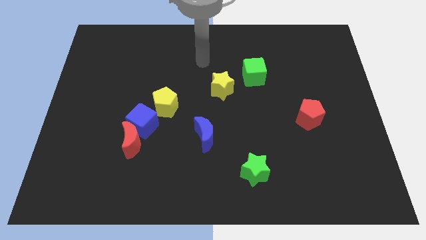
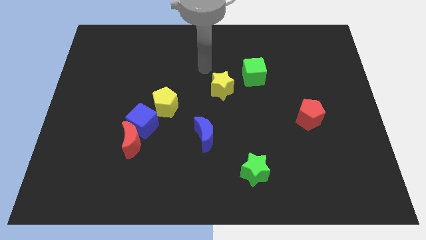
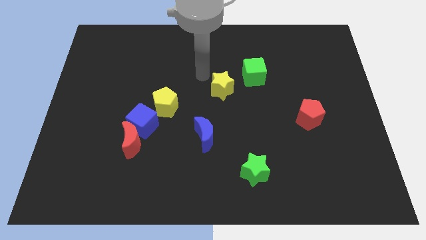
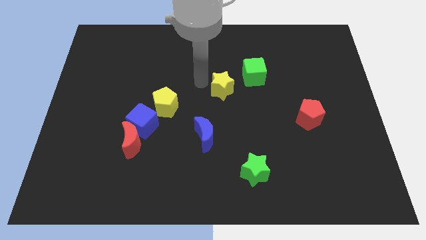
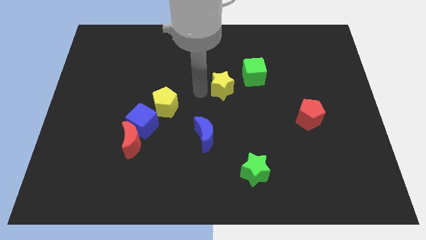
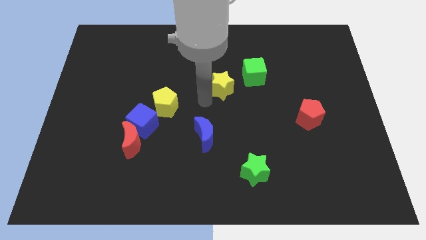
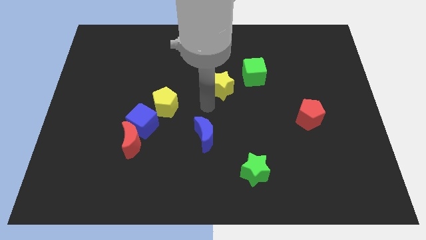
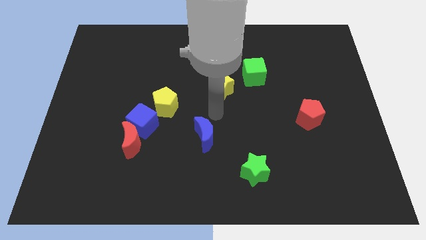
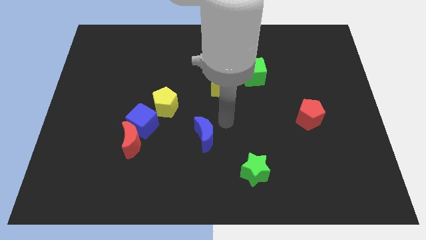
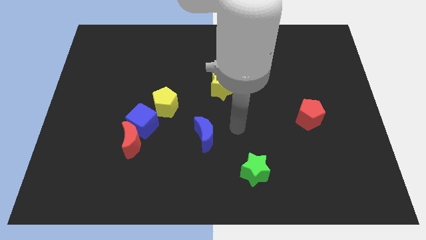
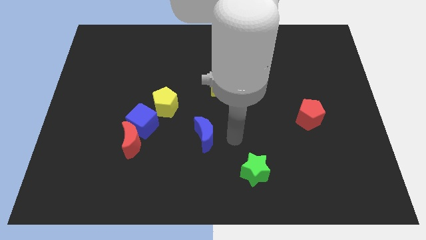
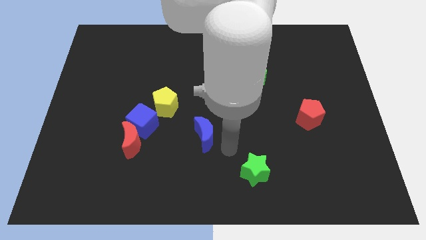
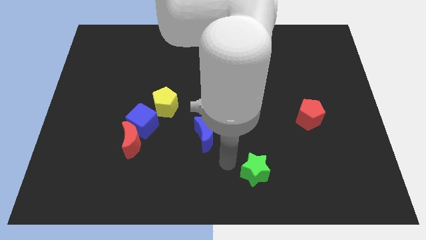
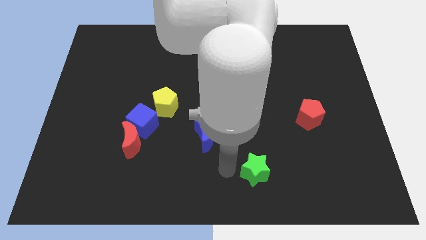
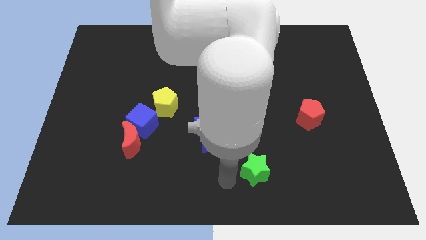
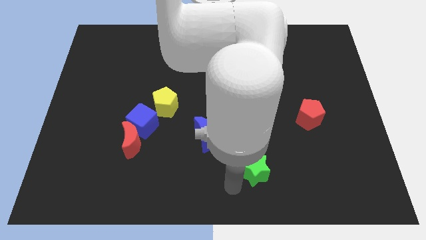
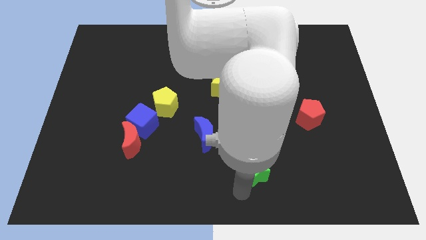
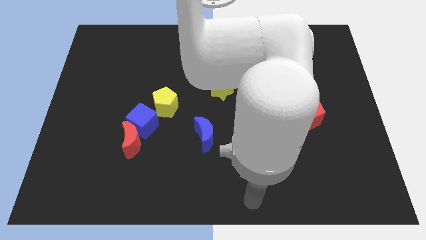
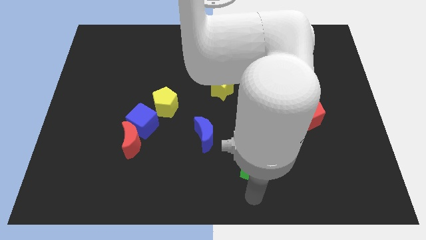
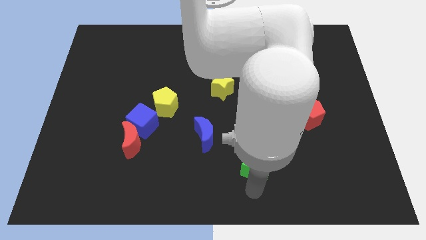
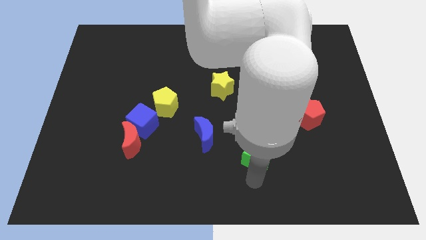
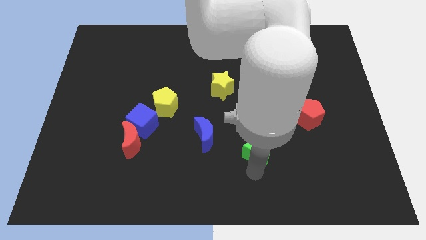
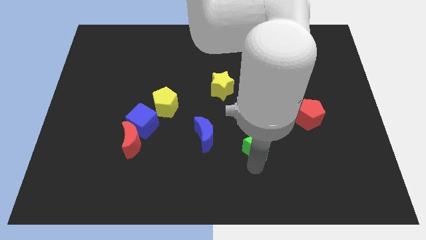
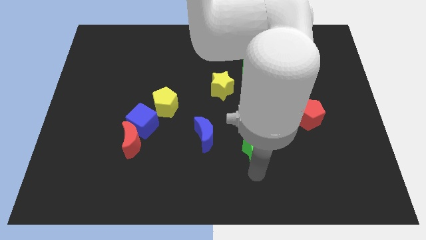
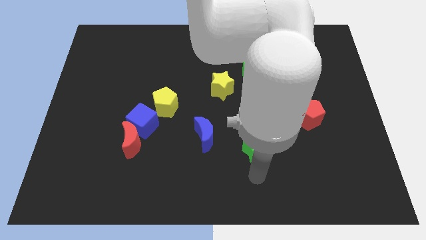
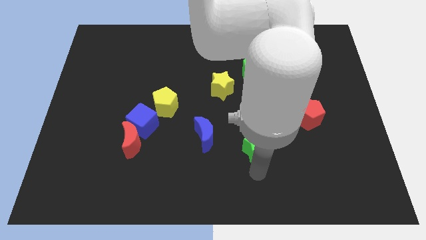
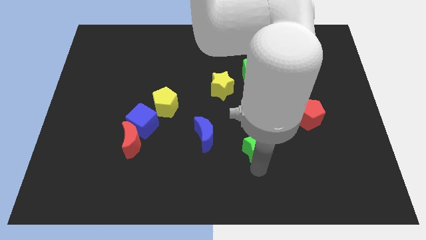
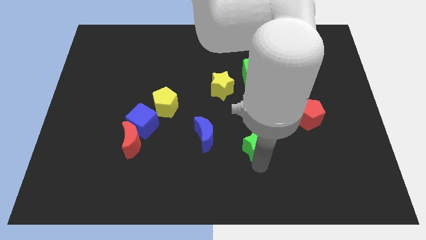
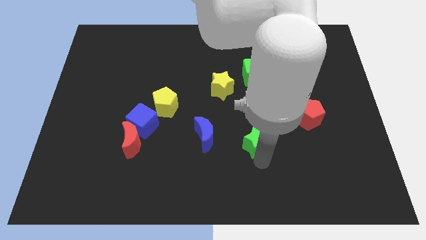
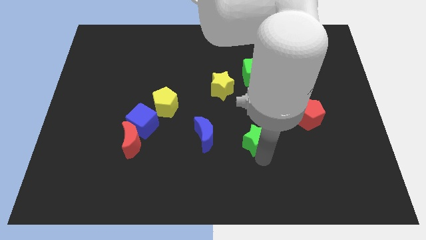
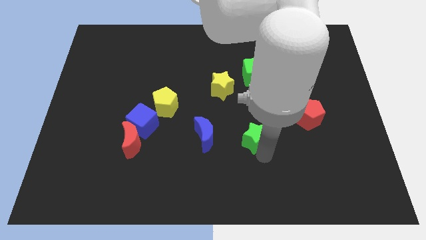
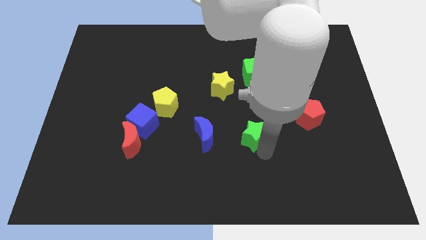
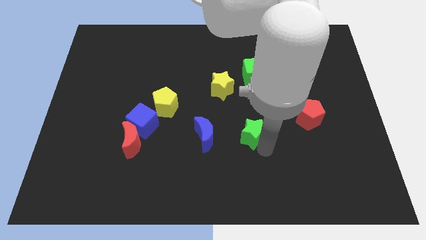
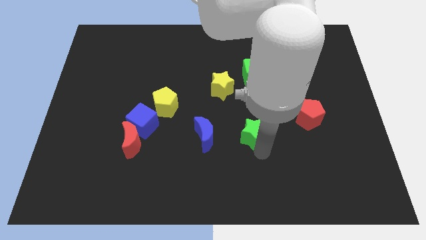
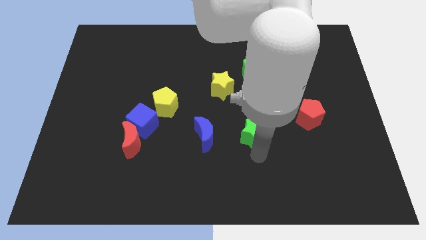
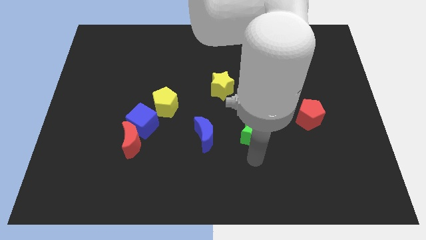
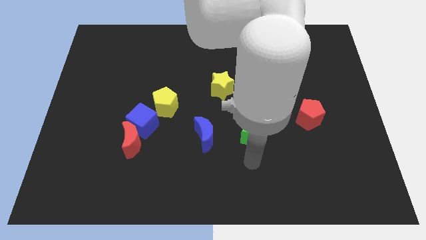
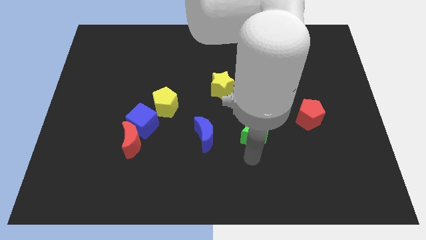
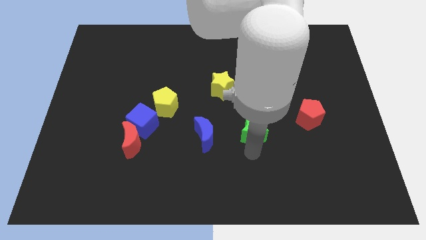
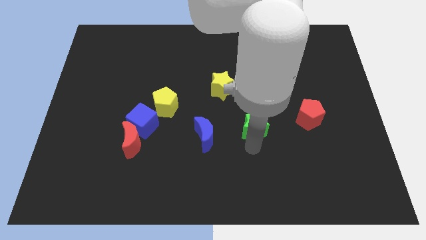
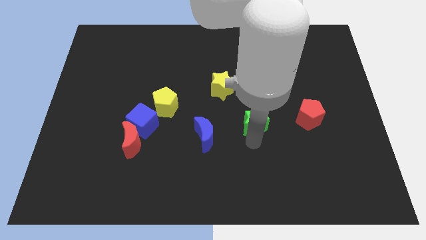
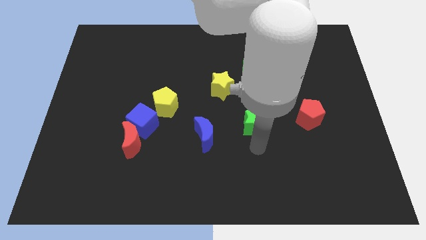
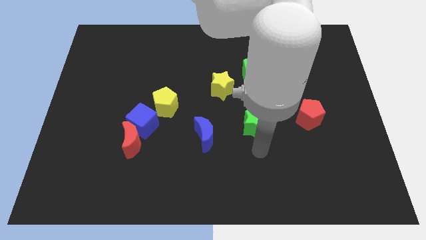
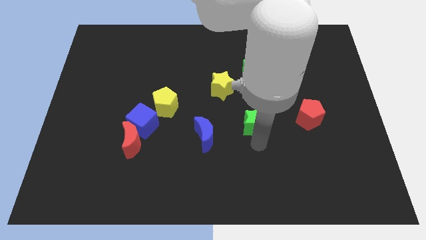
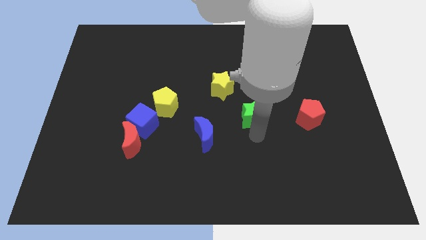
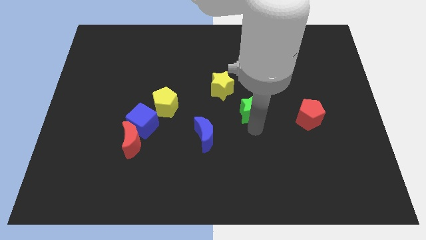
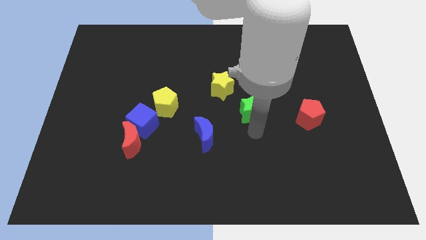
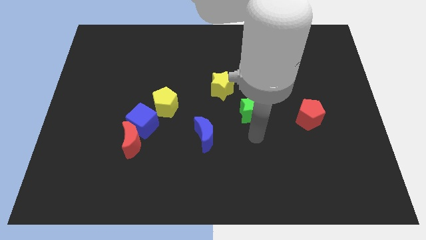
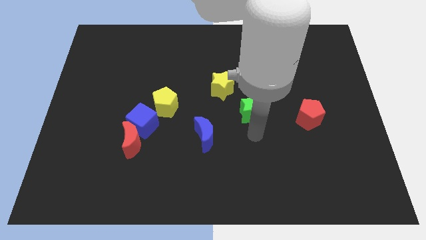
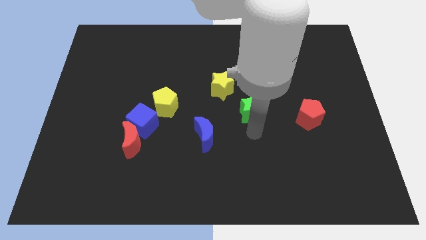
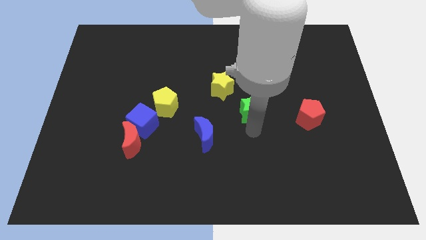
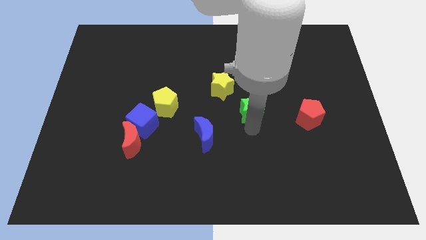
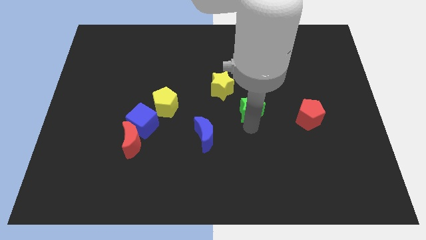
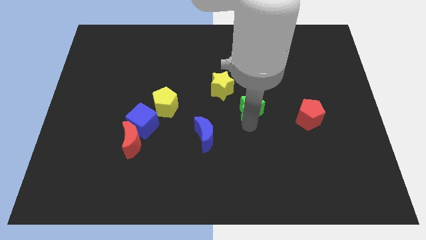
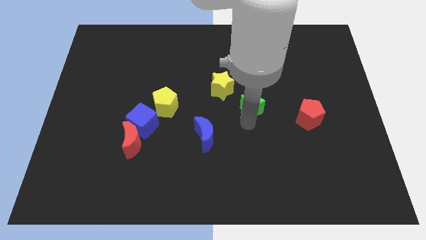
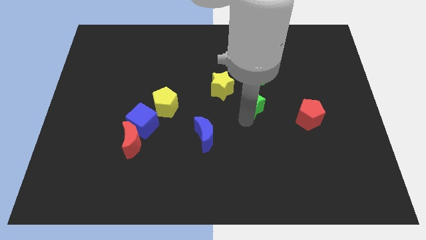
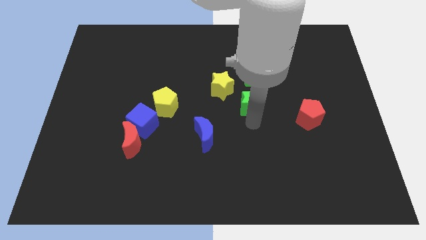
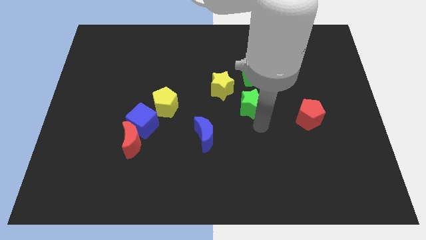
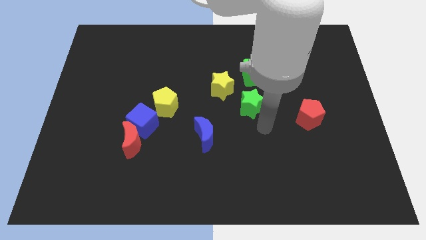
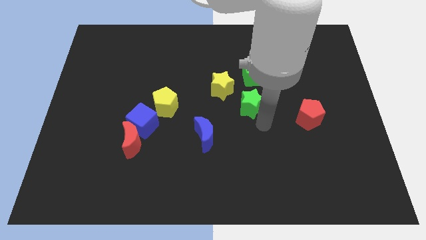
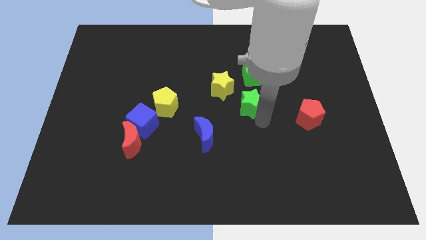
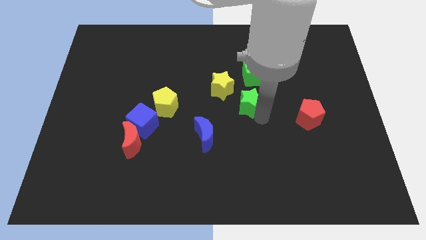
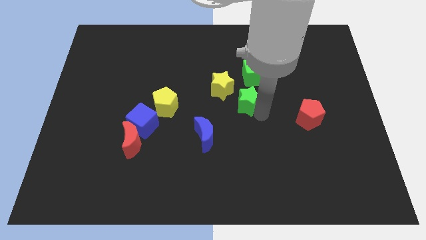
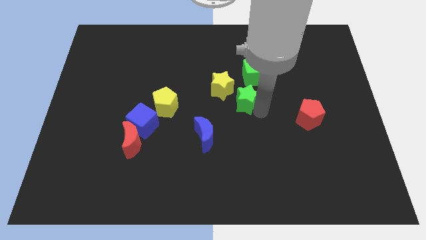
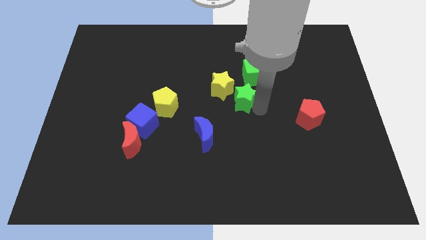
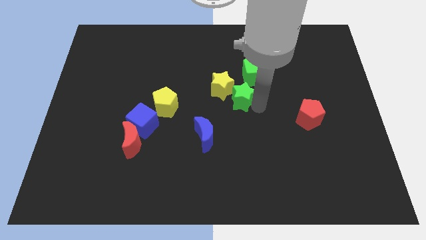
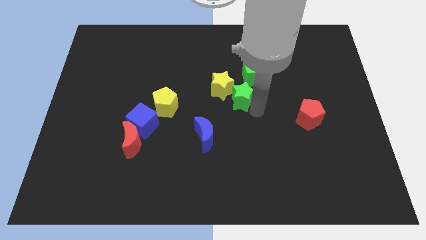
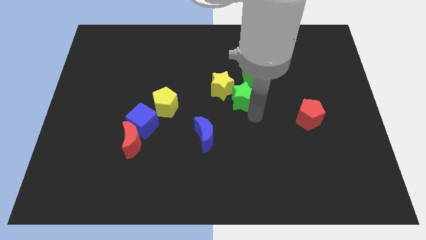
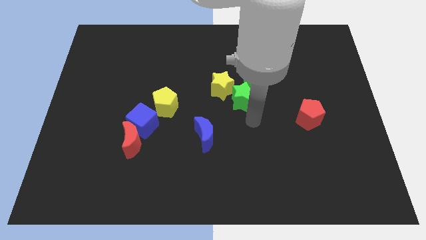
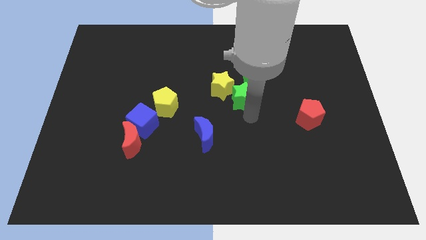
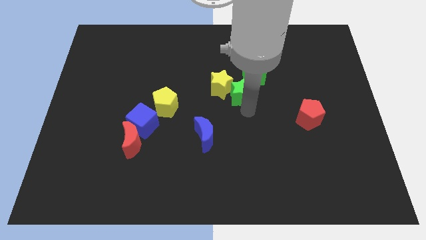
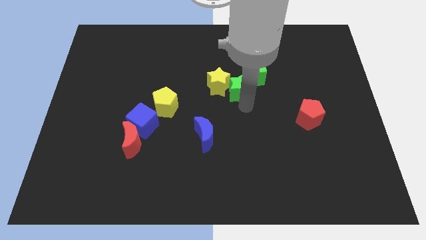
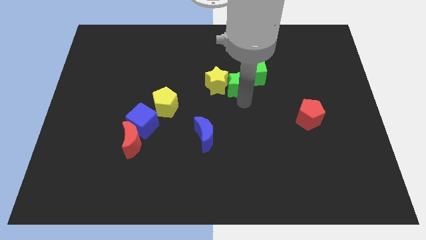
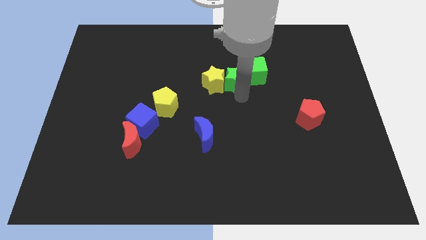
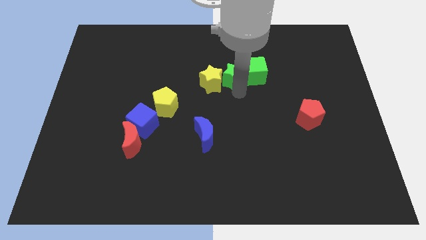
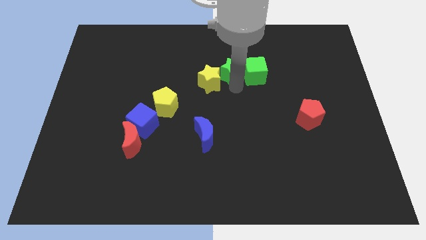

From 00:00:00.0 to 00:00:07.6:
put the green star diagonally up and to the left of the green cube

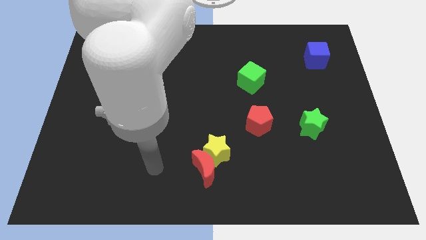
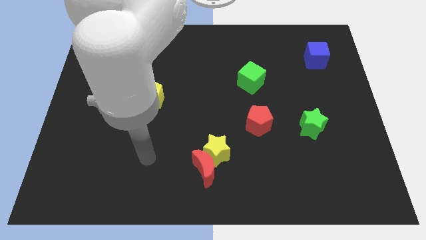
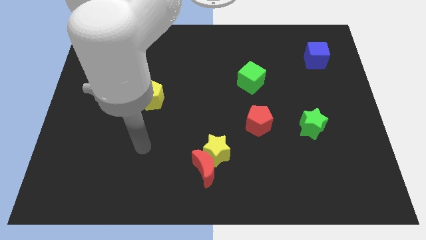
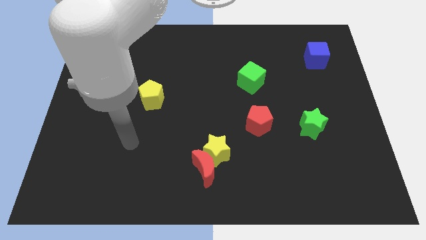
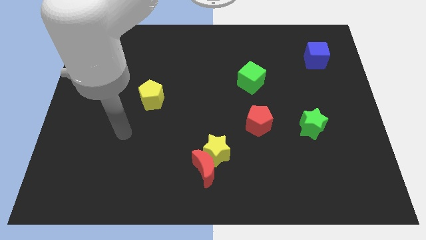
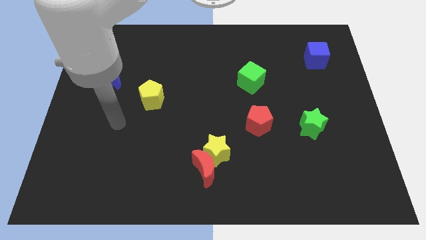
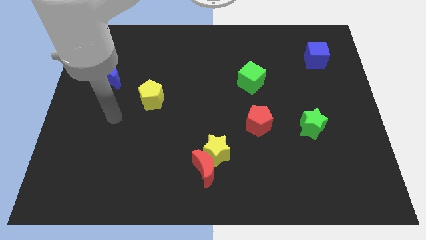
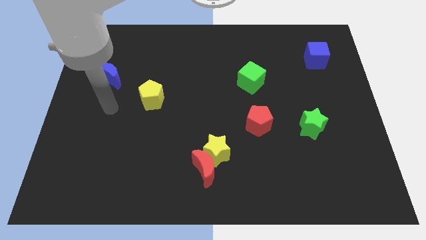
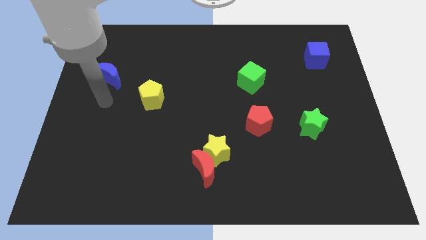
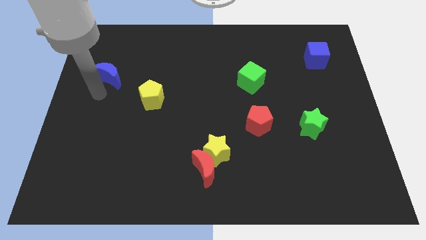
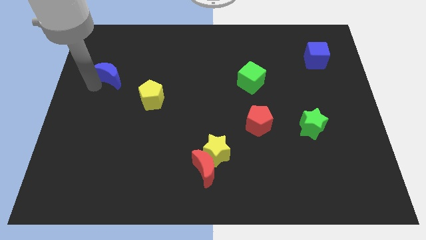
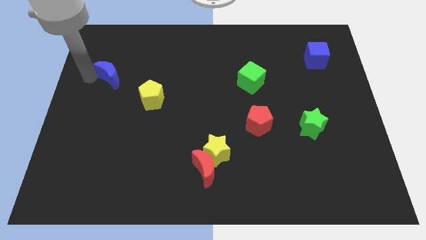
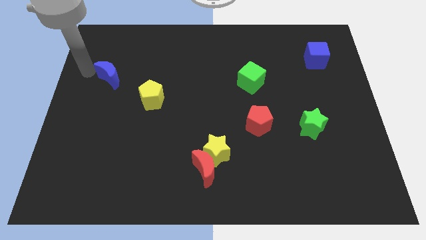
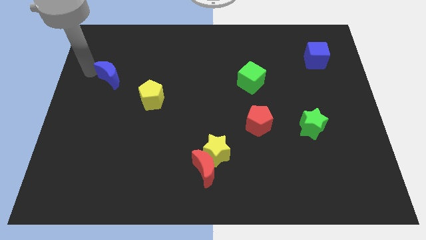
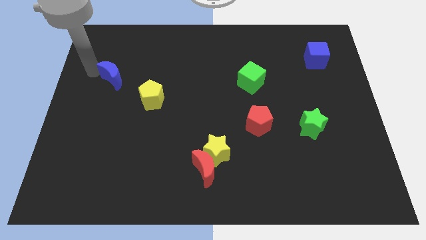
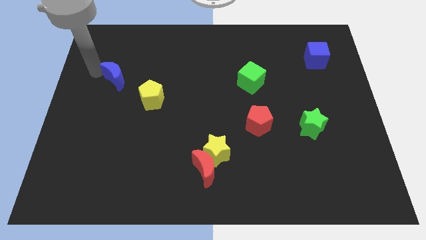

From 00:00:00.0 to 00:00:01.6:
slide the blue moon to the top left of the yellow pentagon
